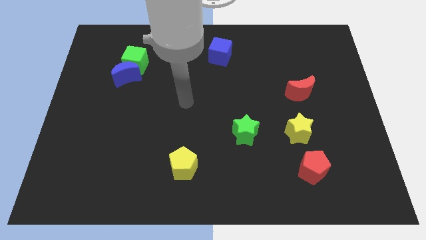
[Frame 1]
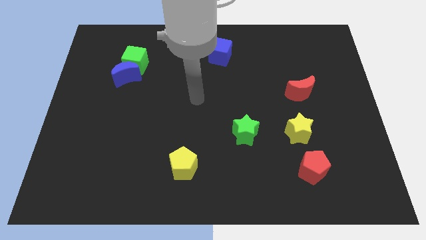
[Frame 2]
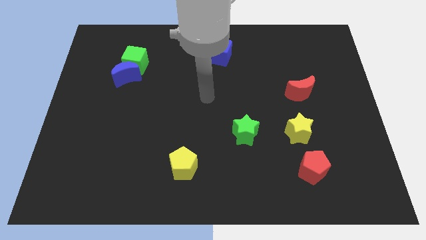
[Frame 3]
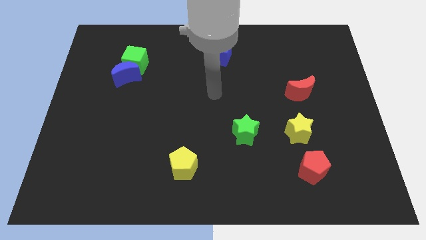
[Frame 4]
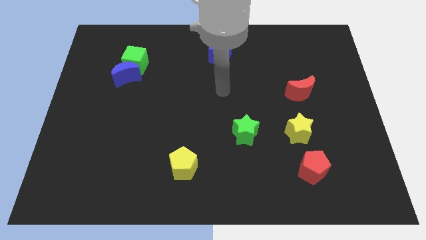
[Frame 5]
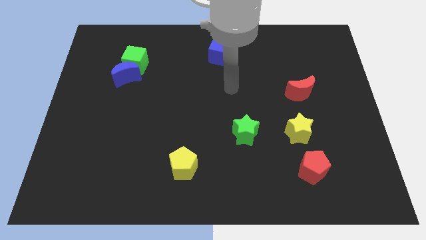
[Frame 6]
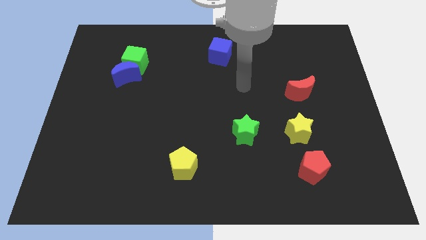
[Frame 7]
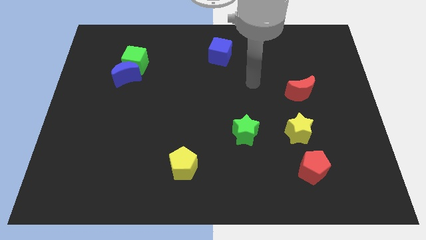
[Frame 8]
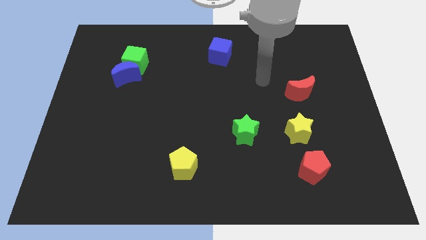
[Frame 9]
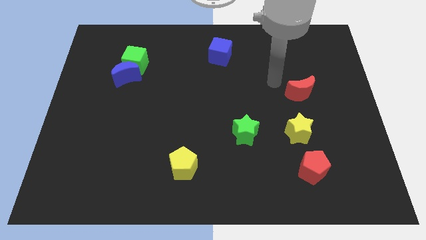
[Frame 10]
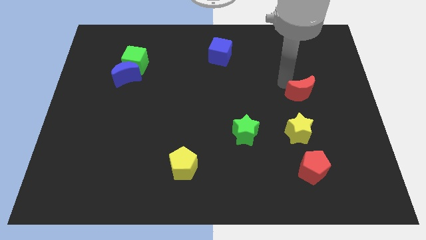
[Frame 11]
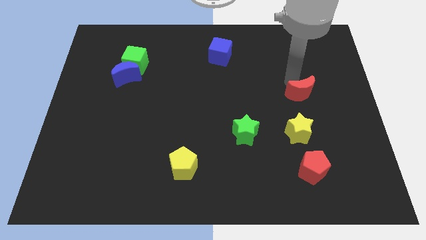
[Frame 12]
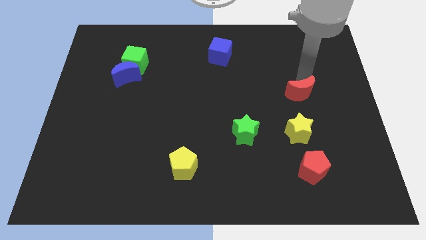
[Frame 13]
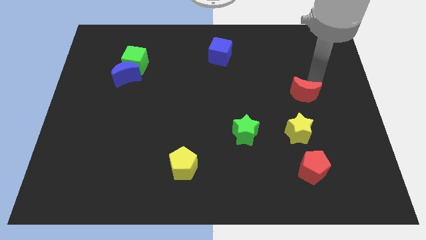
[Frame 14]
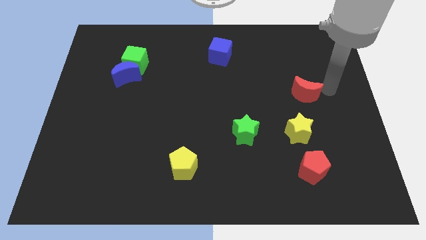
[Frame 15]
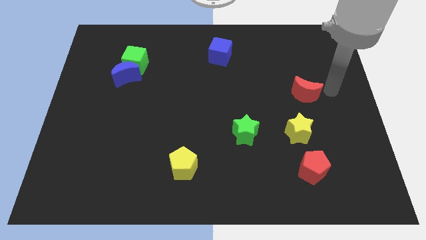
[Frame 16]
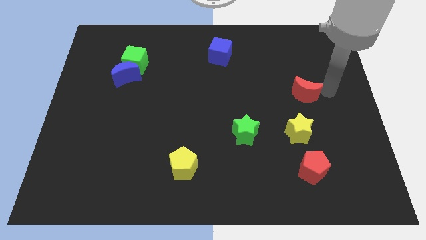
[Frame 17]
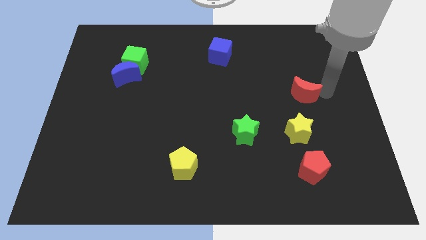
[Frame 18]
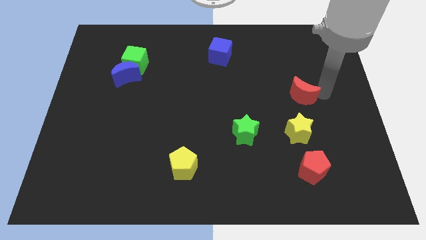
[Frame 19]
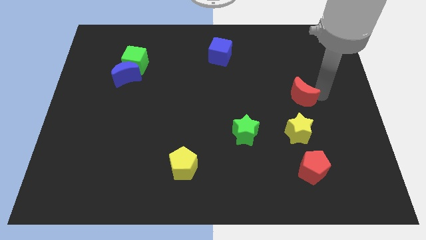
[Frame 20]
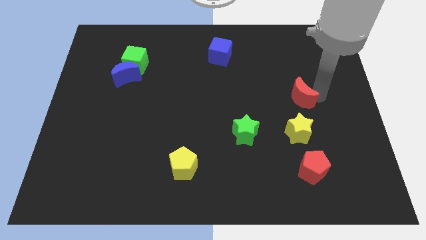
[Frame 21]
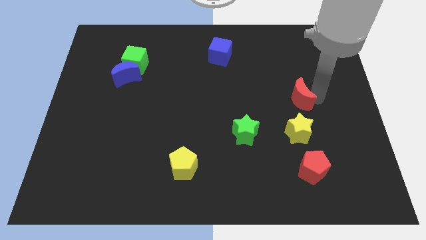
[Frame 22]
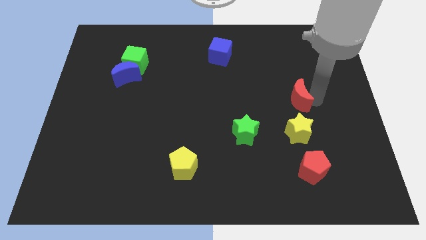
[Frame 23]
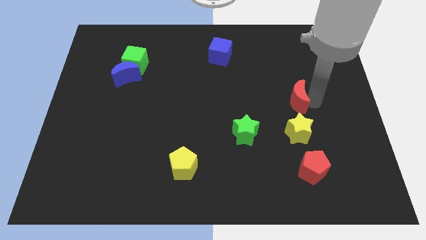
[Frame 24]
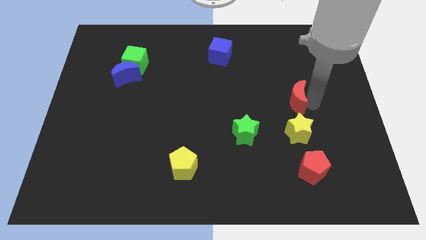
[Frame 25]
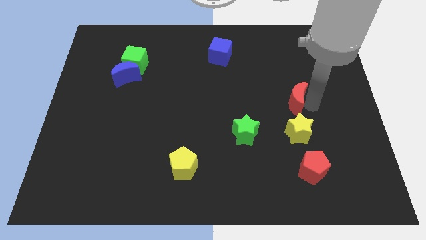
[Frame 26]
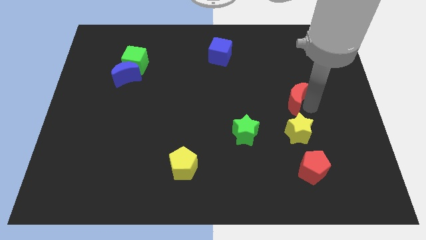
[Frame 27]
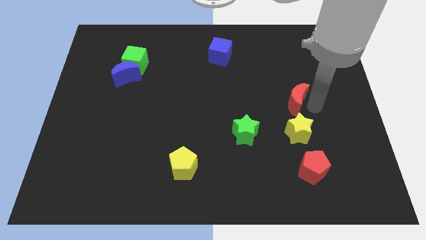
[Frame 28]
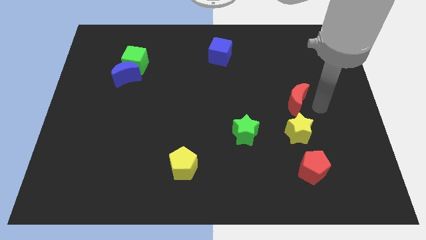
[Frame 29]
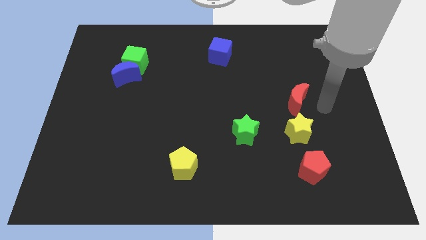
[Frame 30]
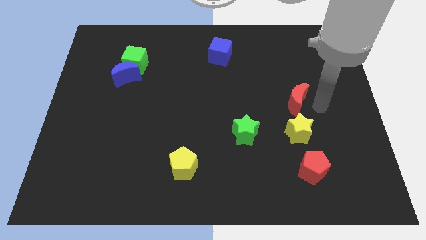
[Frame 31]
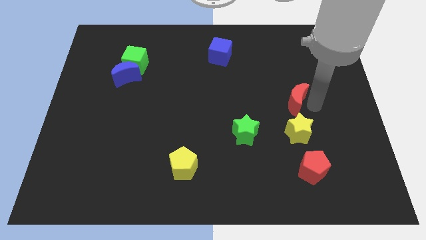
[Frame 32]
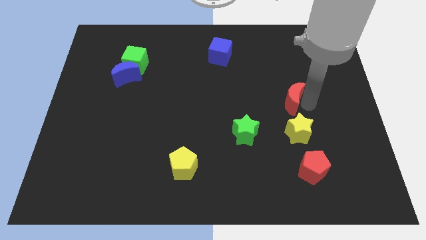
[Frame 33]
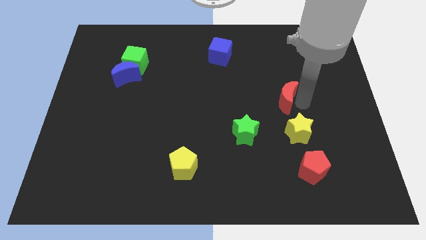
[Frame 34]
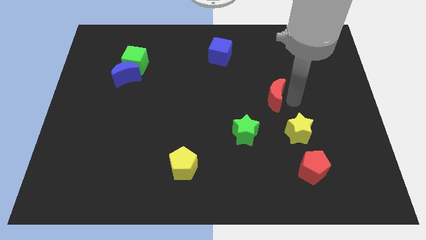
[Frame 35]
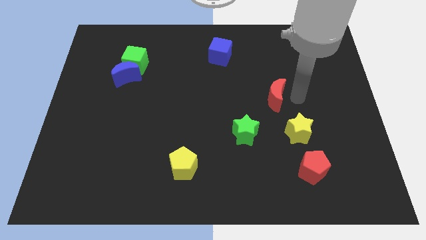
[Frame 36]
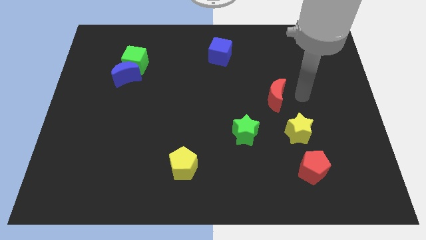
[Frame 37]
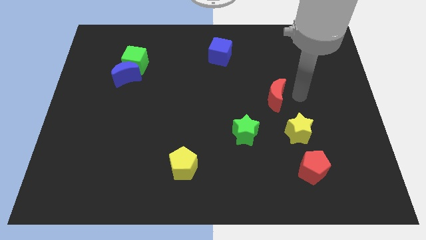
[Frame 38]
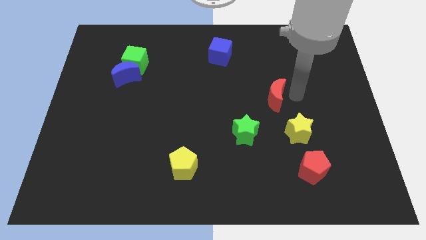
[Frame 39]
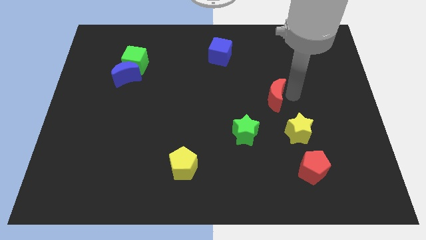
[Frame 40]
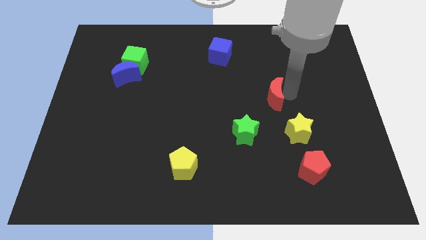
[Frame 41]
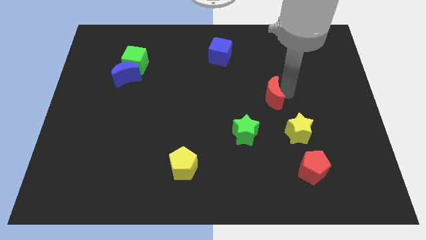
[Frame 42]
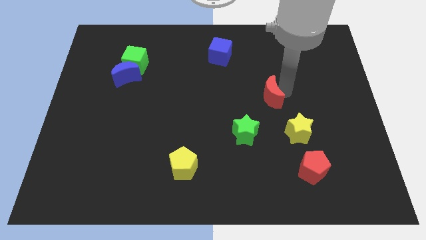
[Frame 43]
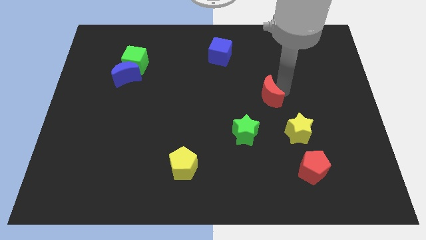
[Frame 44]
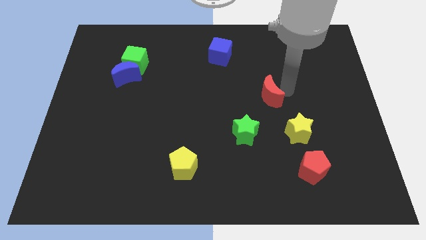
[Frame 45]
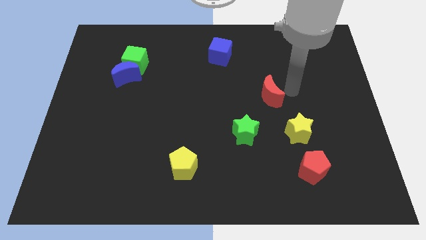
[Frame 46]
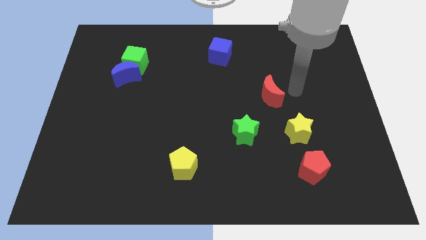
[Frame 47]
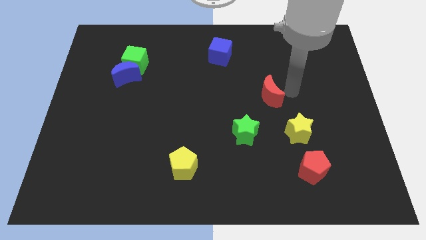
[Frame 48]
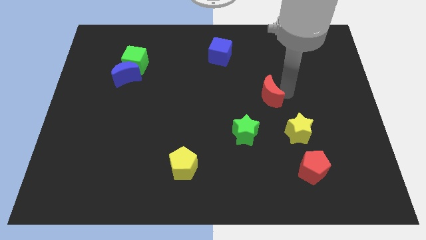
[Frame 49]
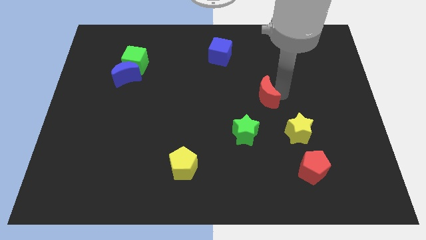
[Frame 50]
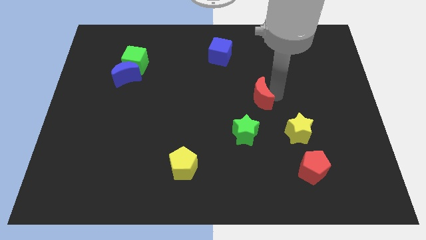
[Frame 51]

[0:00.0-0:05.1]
put the red moon to the middle

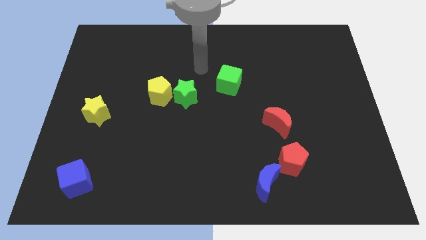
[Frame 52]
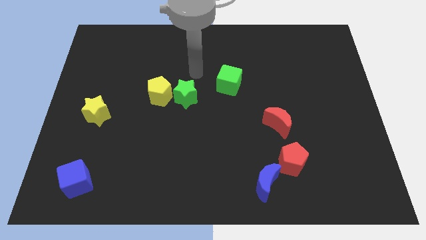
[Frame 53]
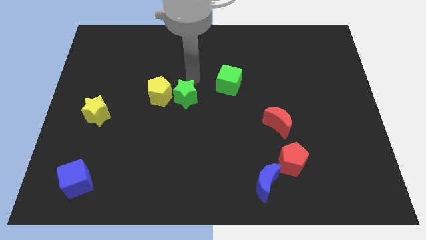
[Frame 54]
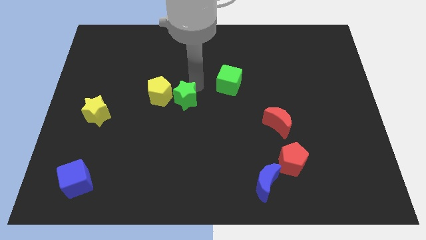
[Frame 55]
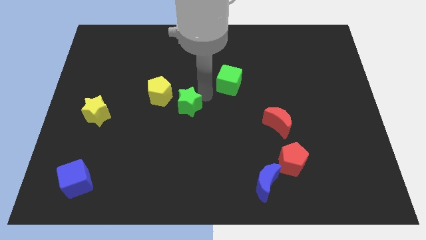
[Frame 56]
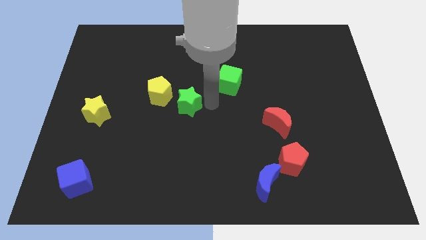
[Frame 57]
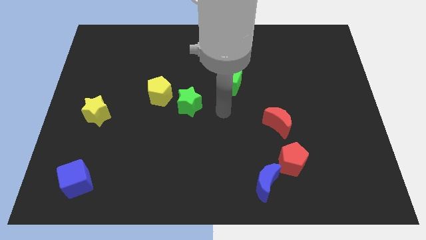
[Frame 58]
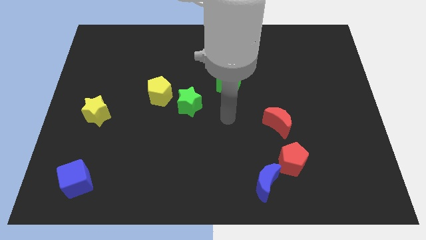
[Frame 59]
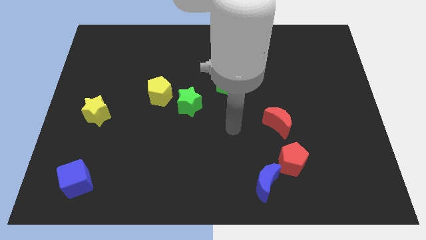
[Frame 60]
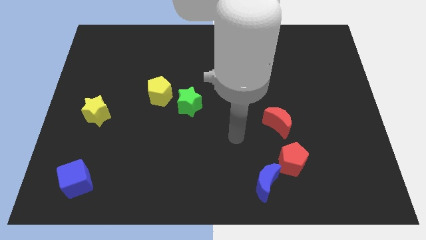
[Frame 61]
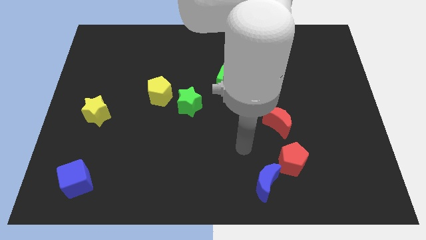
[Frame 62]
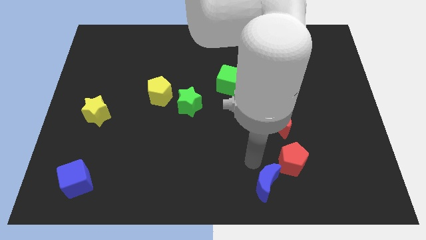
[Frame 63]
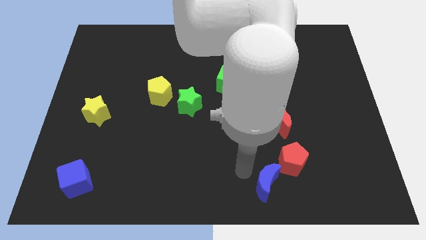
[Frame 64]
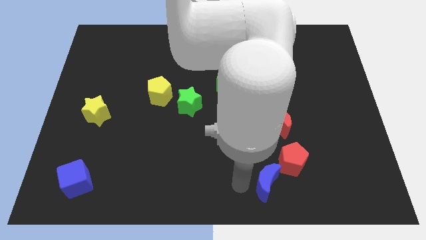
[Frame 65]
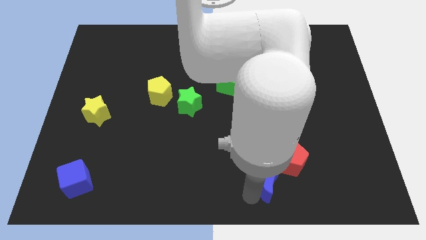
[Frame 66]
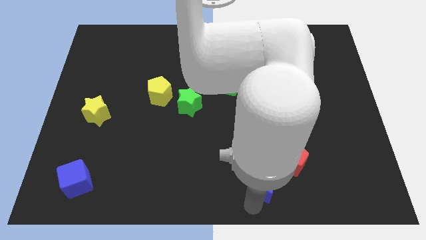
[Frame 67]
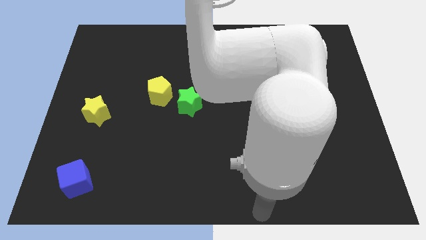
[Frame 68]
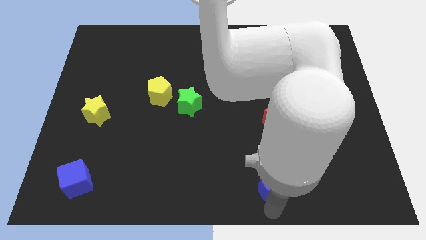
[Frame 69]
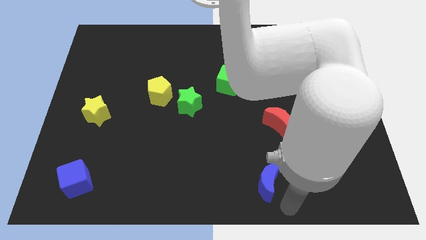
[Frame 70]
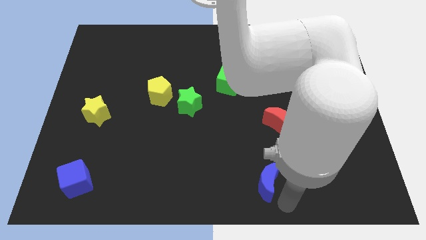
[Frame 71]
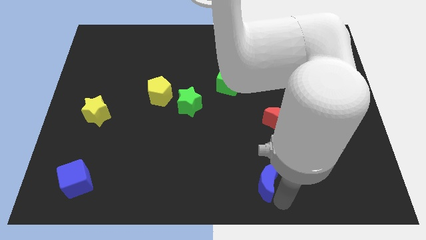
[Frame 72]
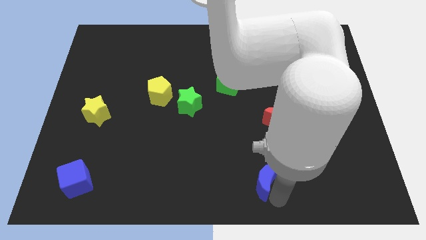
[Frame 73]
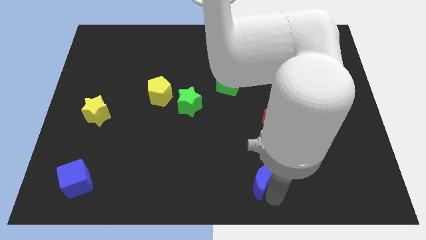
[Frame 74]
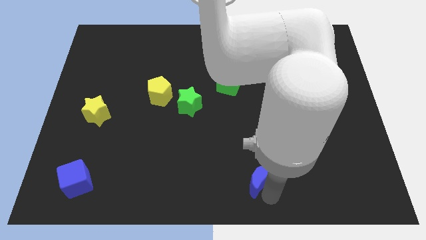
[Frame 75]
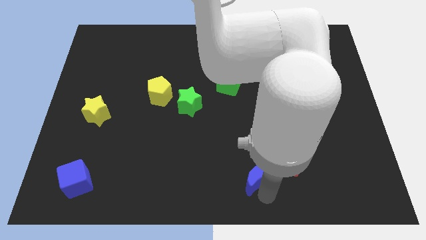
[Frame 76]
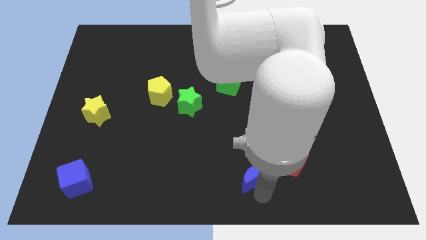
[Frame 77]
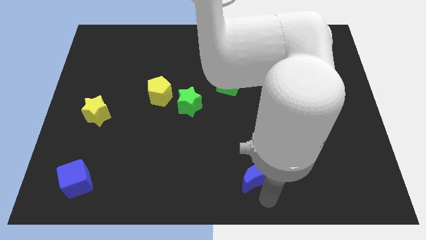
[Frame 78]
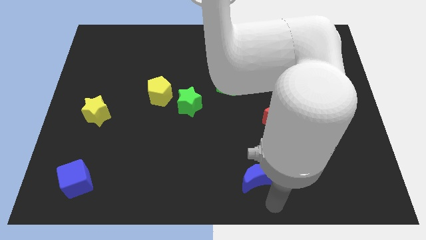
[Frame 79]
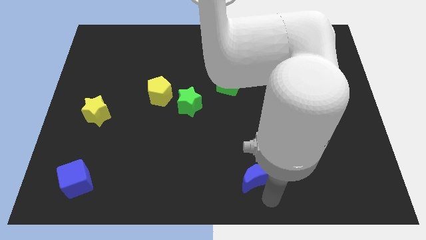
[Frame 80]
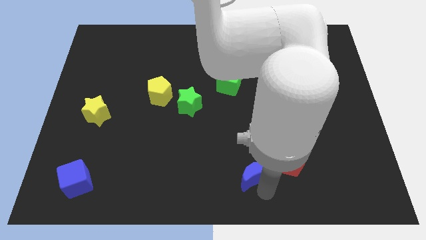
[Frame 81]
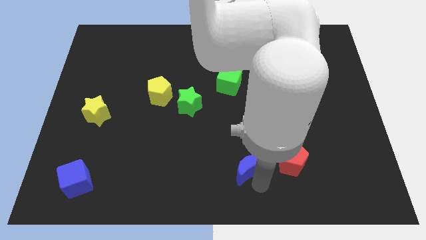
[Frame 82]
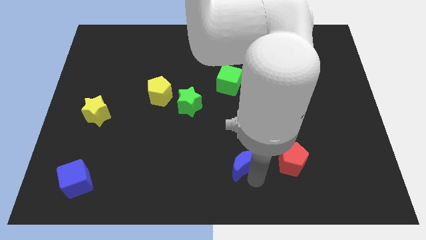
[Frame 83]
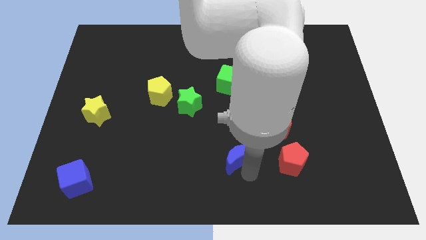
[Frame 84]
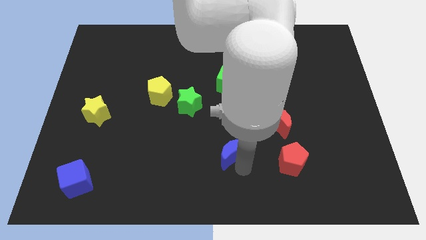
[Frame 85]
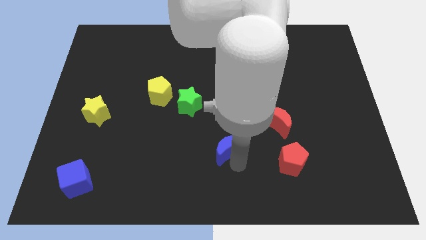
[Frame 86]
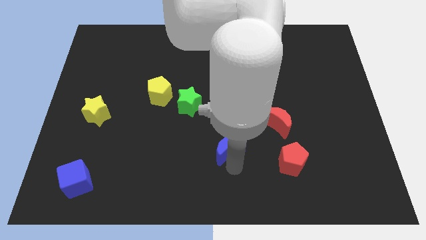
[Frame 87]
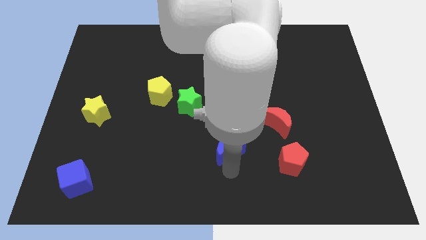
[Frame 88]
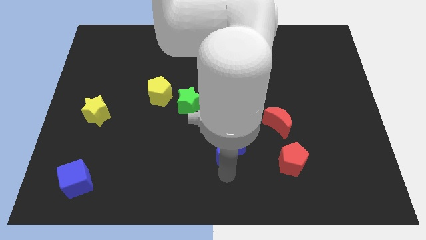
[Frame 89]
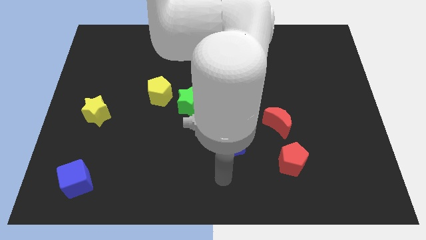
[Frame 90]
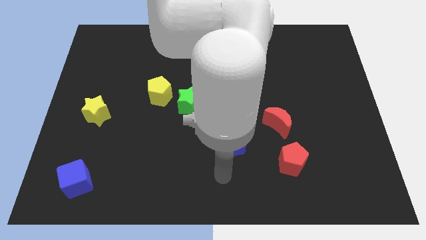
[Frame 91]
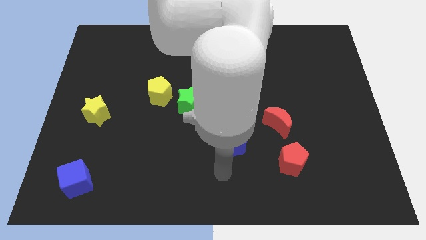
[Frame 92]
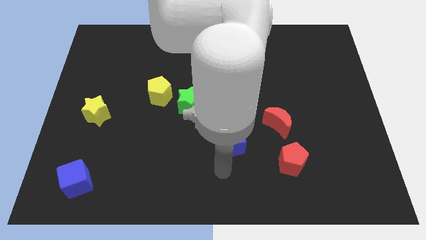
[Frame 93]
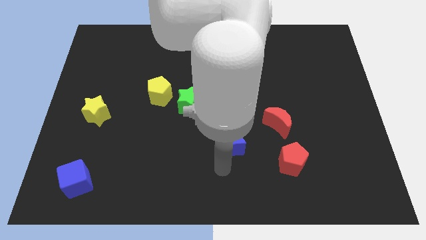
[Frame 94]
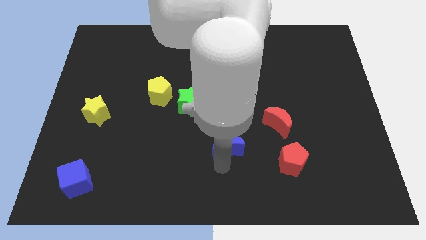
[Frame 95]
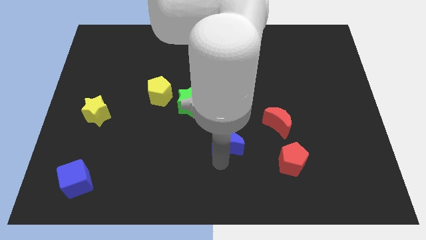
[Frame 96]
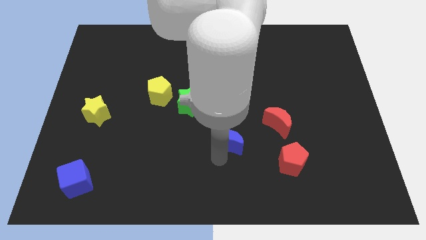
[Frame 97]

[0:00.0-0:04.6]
move the blue moon to the middle
